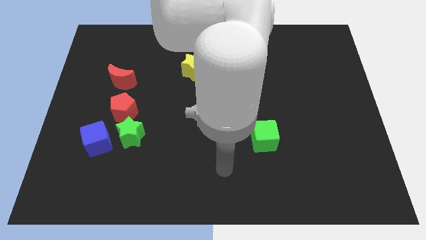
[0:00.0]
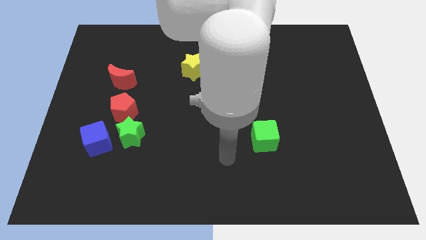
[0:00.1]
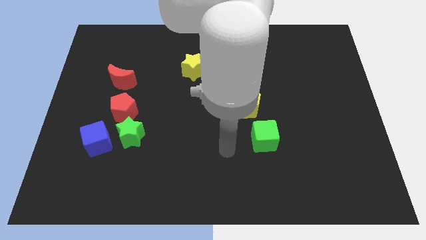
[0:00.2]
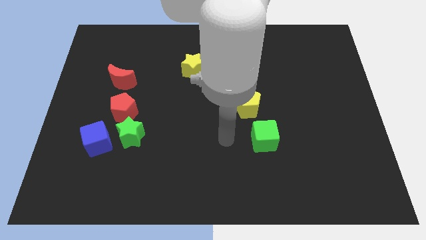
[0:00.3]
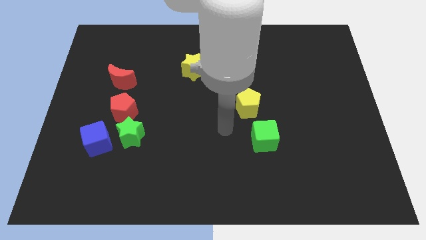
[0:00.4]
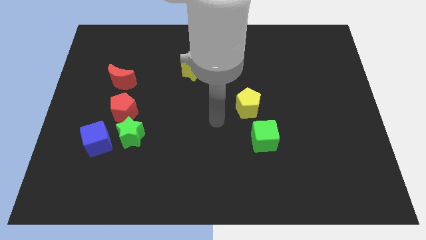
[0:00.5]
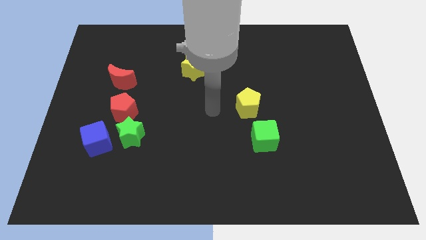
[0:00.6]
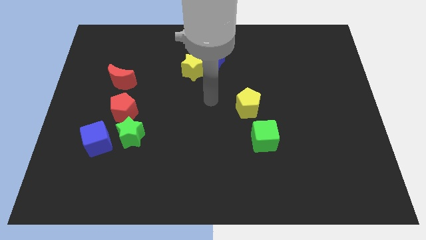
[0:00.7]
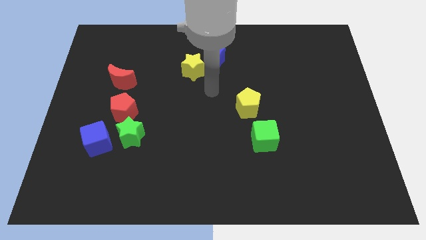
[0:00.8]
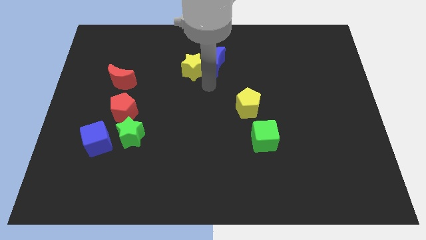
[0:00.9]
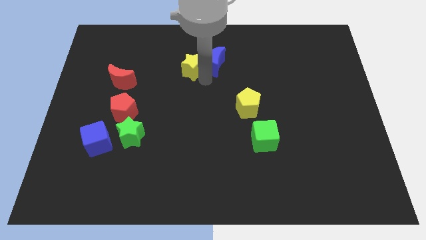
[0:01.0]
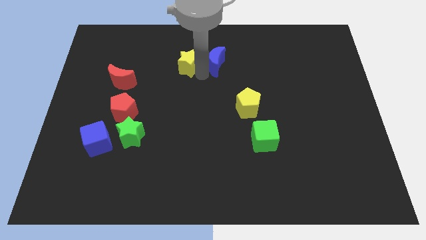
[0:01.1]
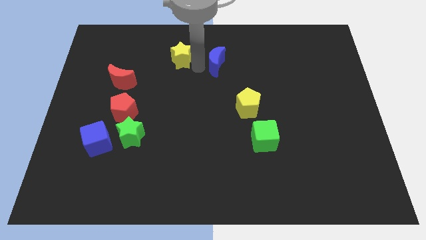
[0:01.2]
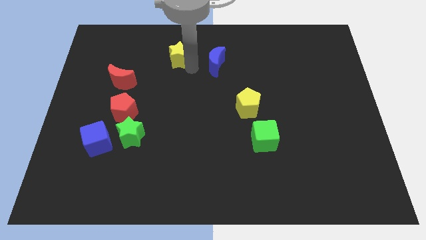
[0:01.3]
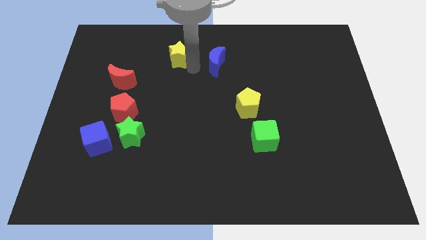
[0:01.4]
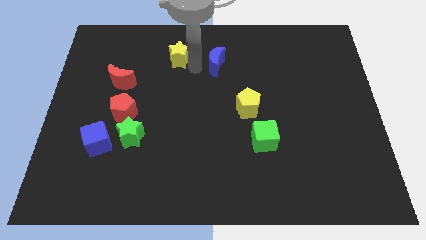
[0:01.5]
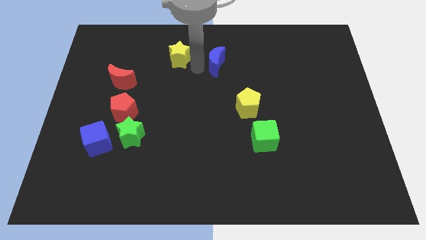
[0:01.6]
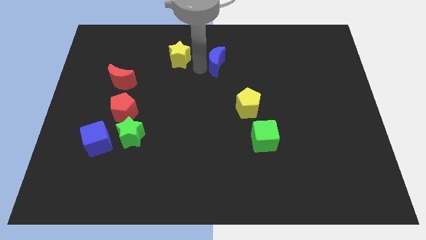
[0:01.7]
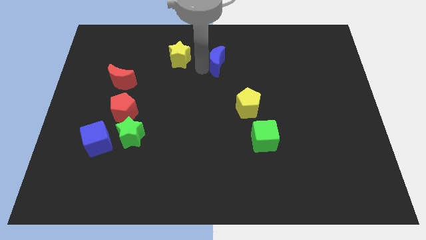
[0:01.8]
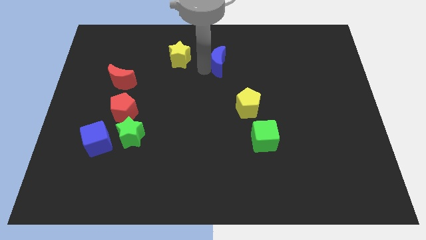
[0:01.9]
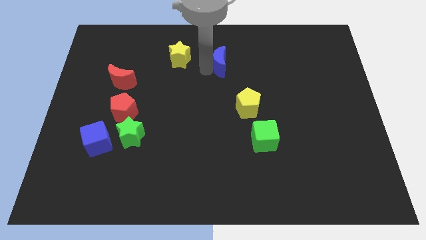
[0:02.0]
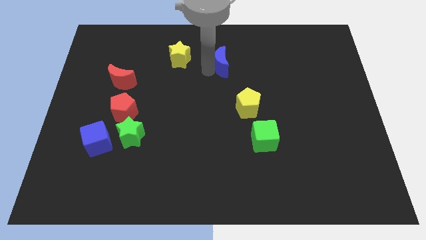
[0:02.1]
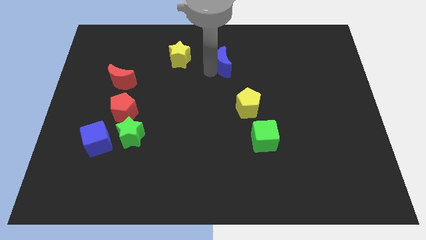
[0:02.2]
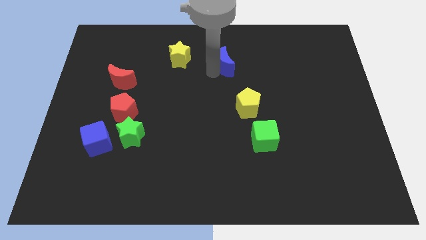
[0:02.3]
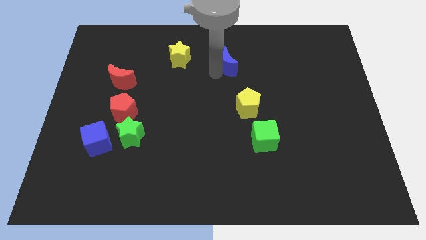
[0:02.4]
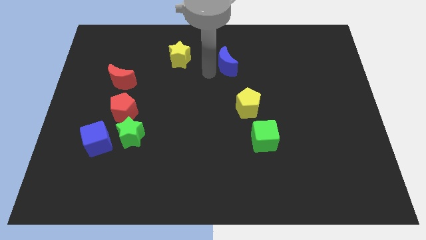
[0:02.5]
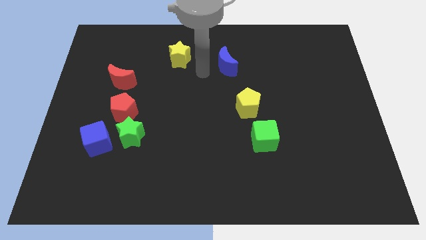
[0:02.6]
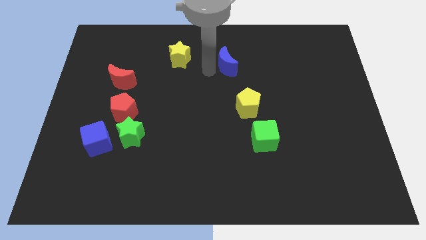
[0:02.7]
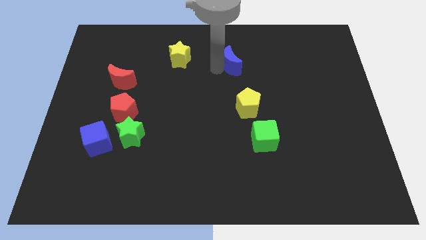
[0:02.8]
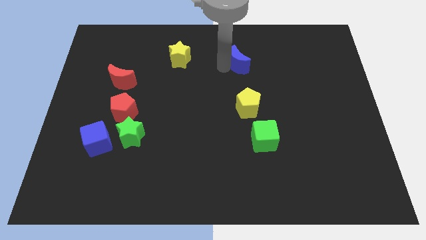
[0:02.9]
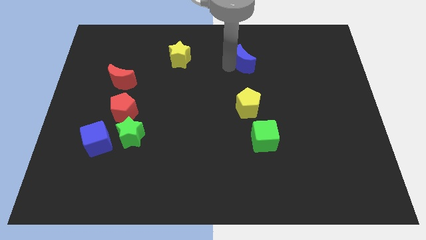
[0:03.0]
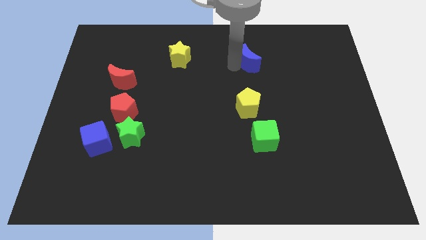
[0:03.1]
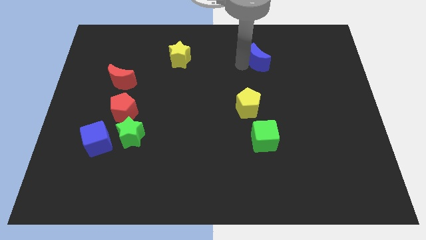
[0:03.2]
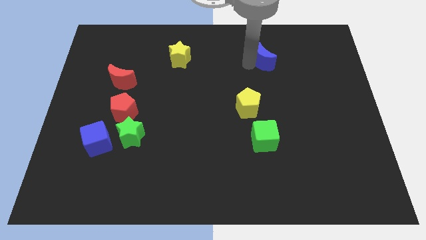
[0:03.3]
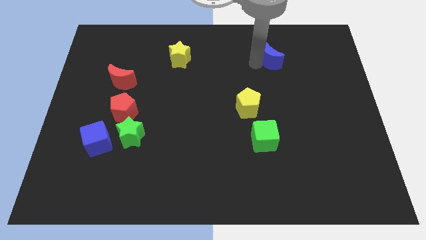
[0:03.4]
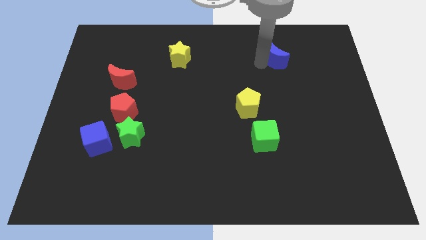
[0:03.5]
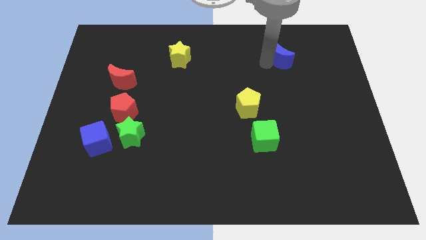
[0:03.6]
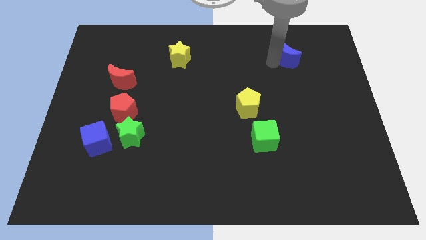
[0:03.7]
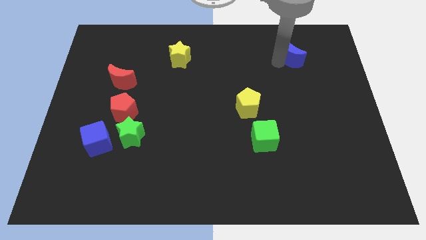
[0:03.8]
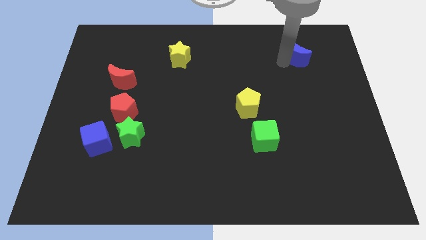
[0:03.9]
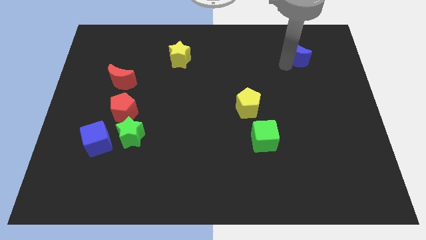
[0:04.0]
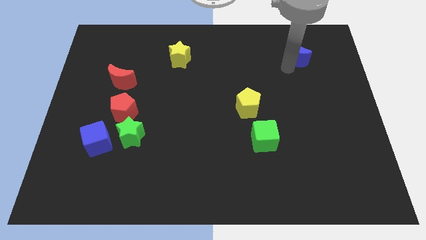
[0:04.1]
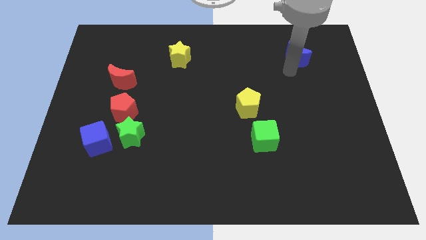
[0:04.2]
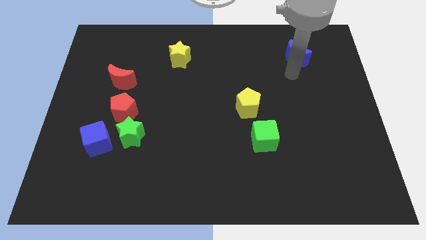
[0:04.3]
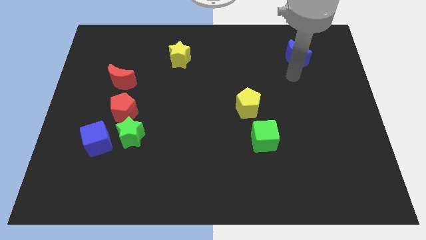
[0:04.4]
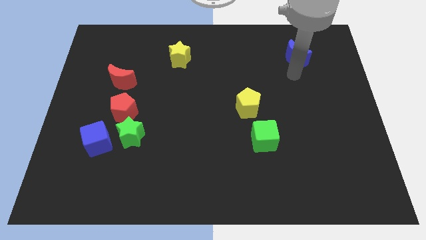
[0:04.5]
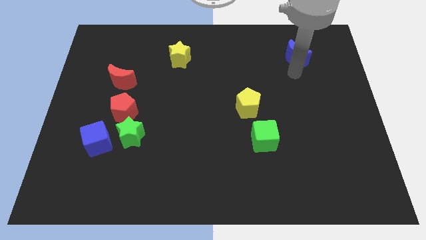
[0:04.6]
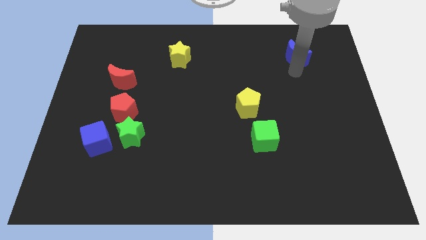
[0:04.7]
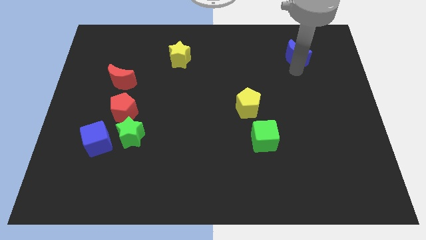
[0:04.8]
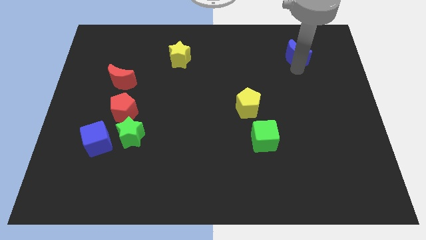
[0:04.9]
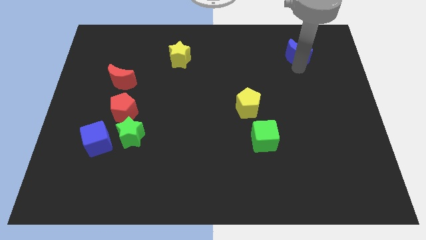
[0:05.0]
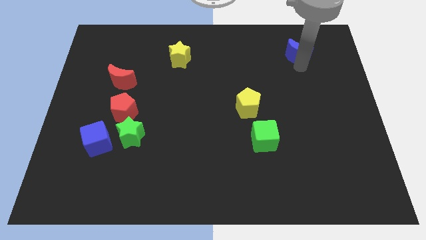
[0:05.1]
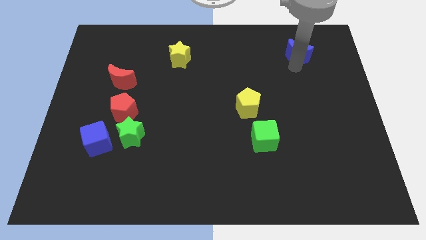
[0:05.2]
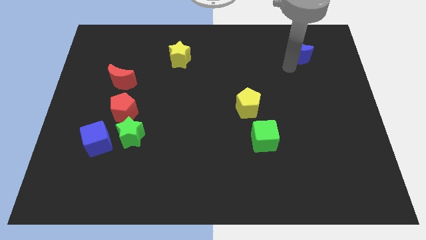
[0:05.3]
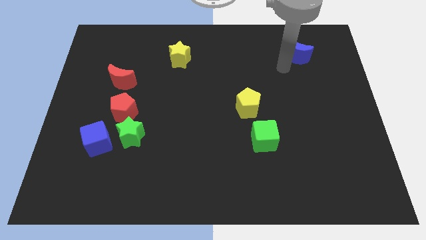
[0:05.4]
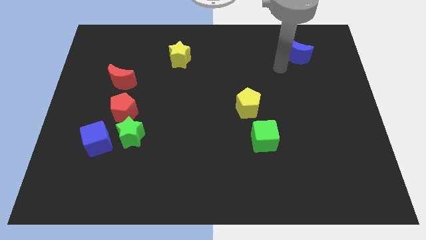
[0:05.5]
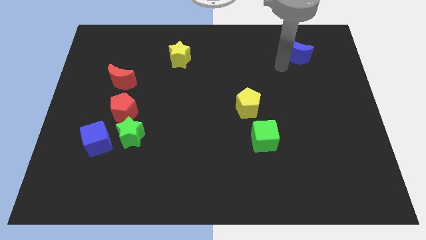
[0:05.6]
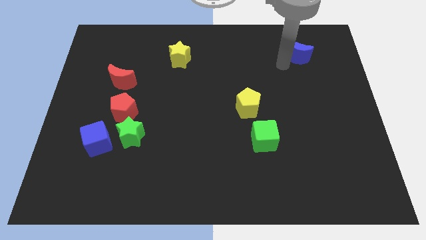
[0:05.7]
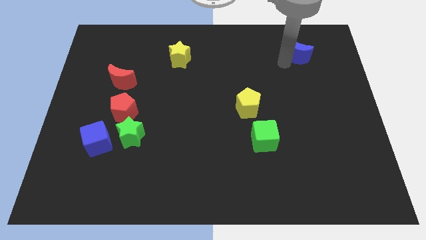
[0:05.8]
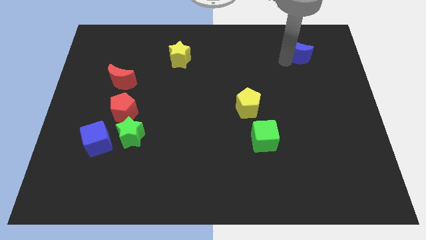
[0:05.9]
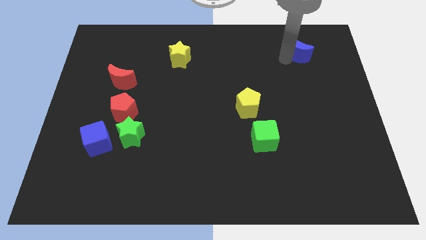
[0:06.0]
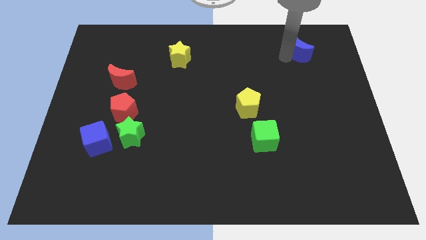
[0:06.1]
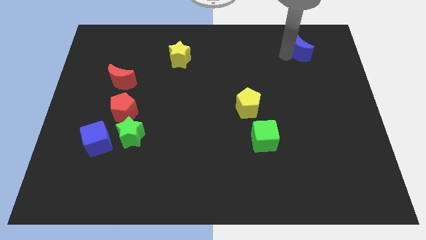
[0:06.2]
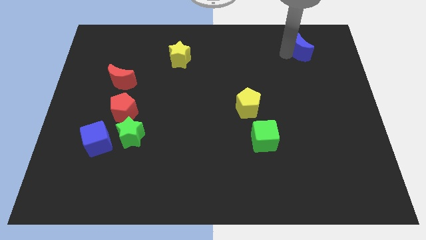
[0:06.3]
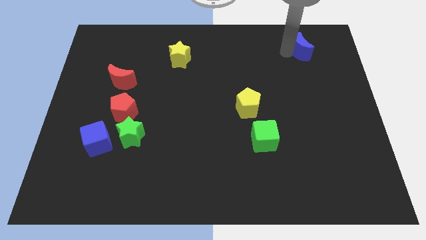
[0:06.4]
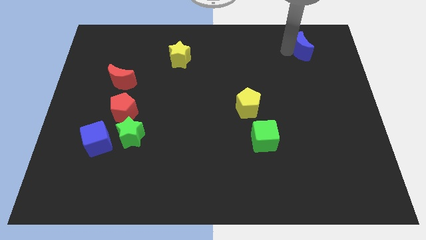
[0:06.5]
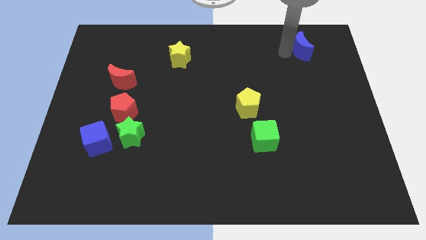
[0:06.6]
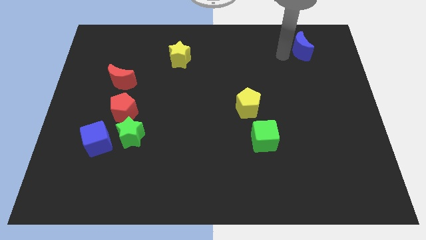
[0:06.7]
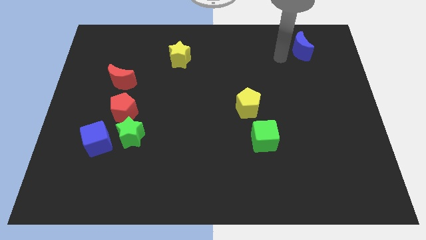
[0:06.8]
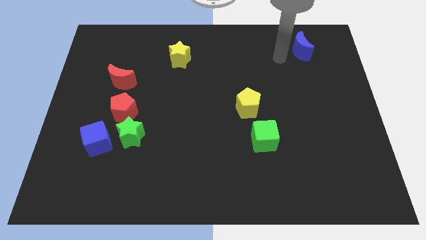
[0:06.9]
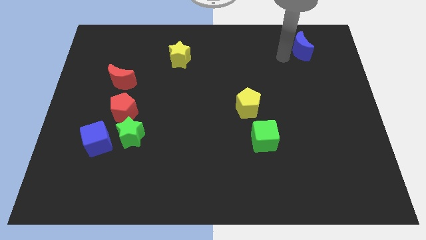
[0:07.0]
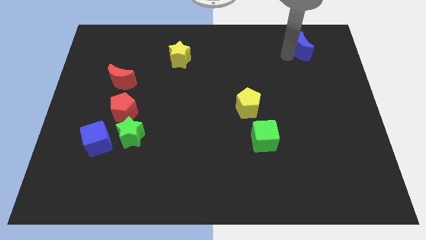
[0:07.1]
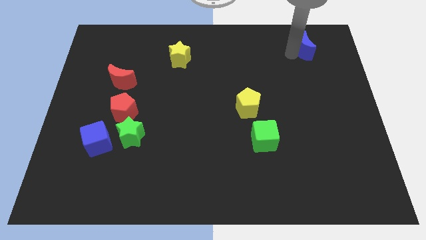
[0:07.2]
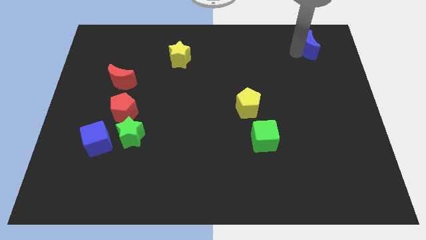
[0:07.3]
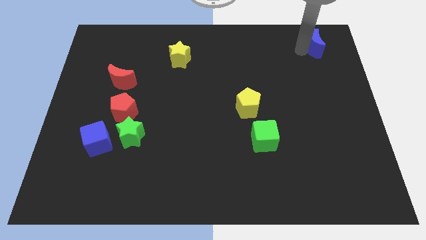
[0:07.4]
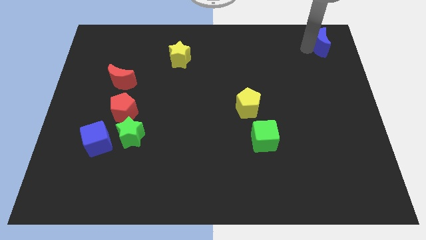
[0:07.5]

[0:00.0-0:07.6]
slide the blue moon to the upper right corner
